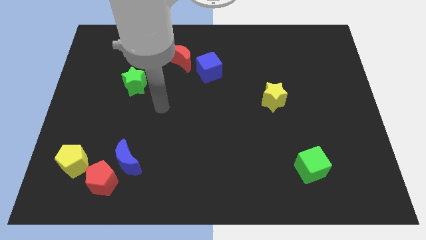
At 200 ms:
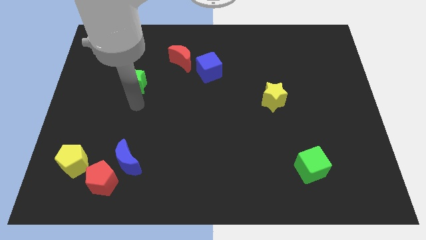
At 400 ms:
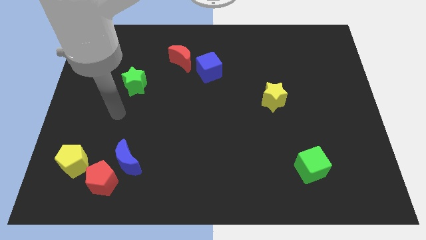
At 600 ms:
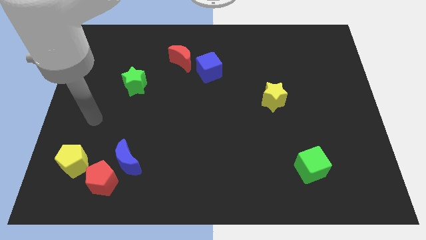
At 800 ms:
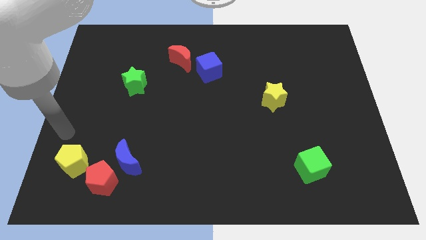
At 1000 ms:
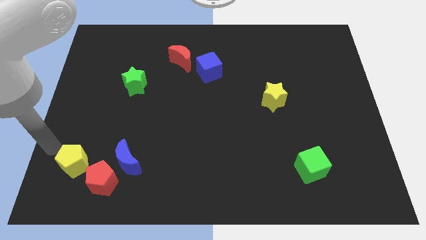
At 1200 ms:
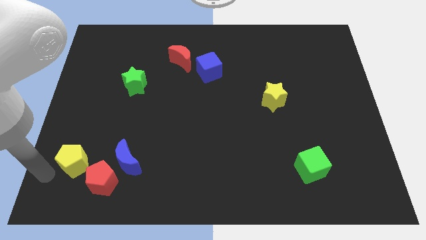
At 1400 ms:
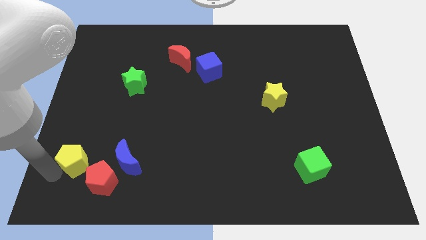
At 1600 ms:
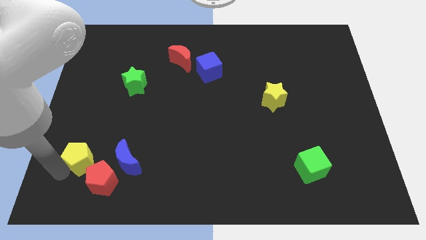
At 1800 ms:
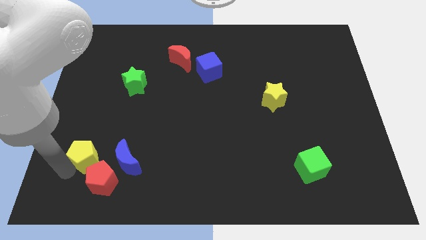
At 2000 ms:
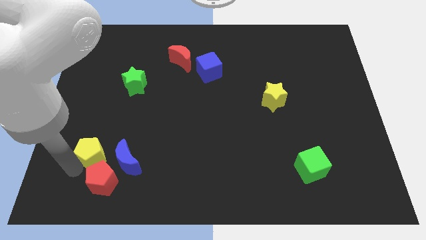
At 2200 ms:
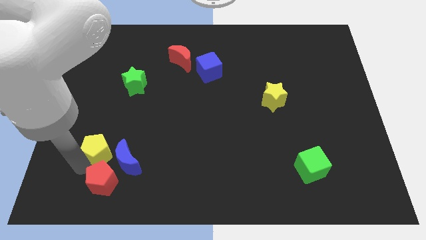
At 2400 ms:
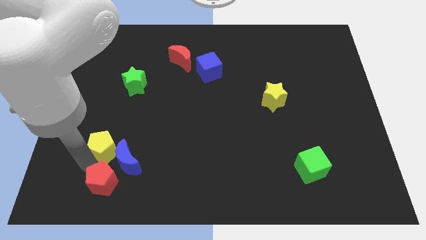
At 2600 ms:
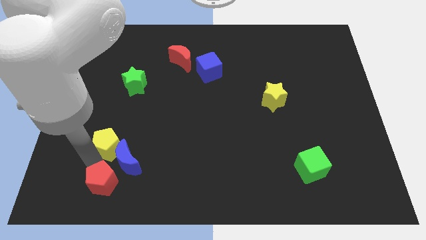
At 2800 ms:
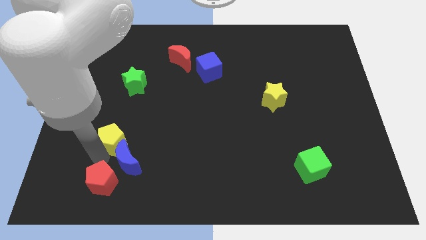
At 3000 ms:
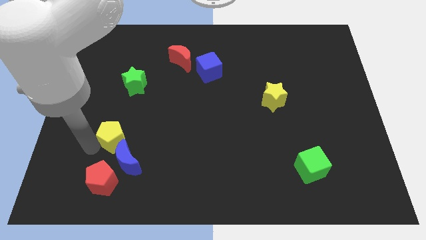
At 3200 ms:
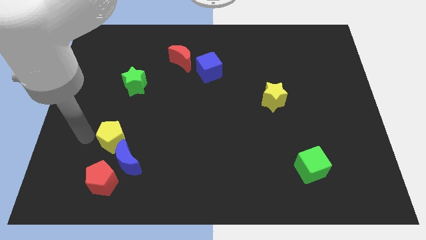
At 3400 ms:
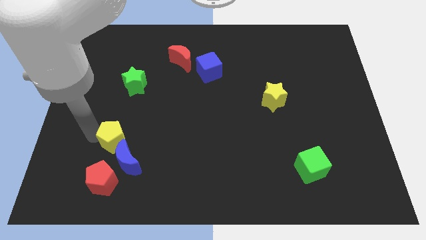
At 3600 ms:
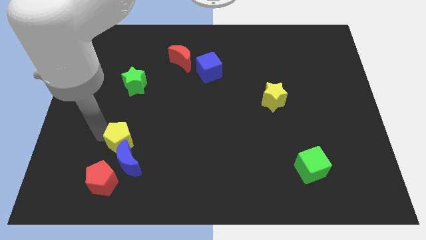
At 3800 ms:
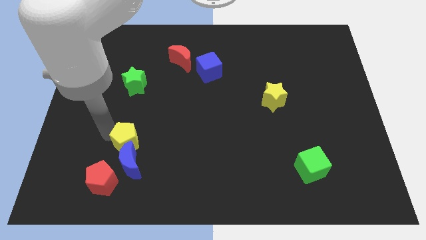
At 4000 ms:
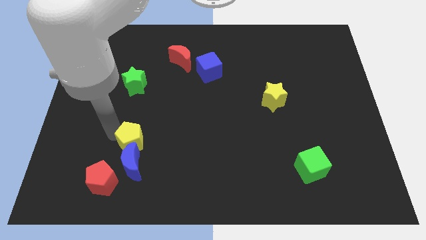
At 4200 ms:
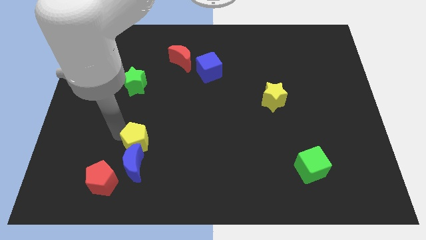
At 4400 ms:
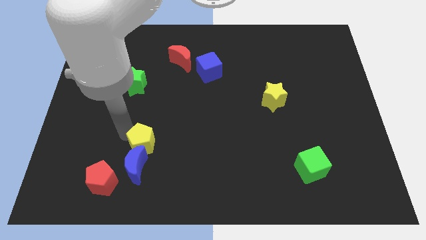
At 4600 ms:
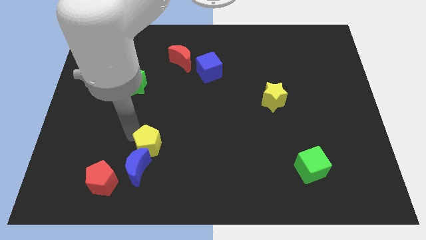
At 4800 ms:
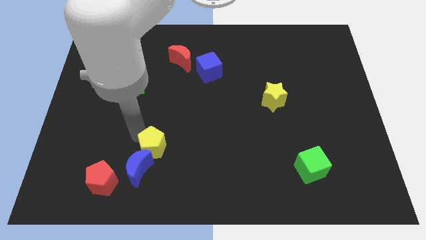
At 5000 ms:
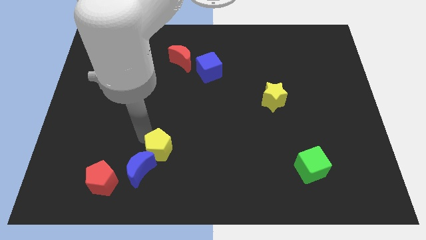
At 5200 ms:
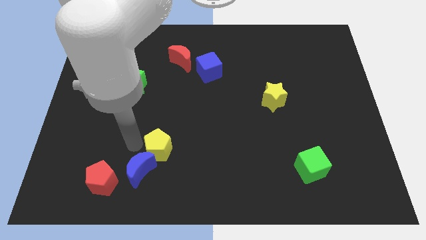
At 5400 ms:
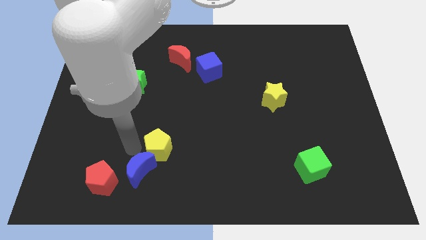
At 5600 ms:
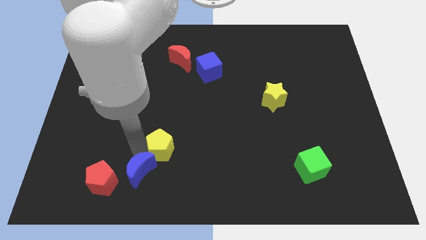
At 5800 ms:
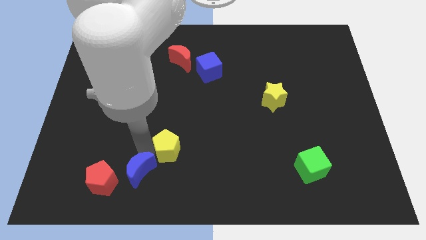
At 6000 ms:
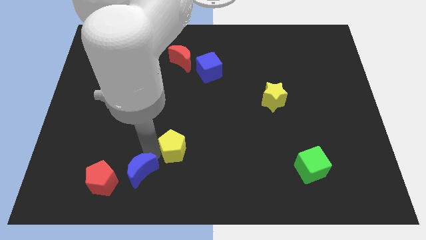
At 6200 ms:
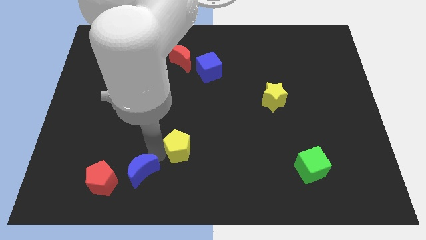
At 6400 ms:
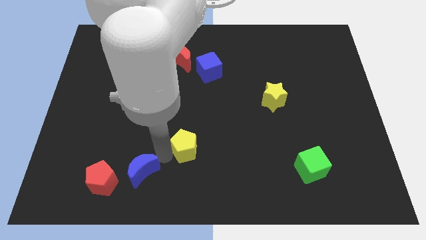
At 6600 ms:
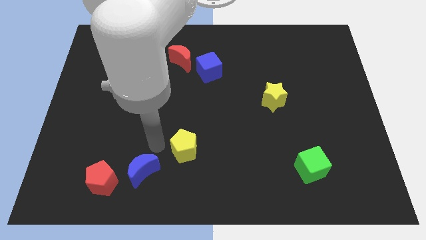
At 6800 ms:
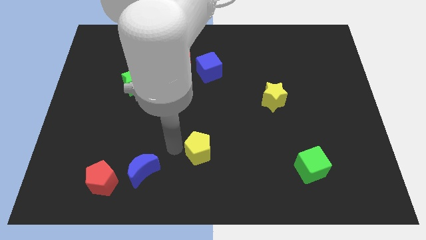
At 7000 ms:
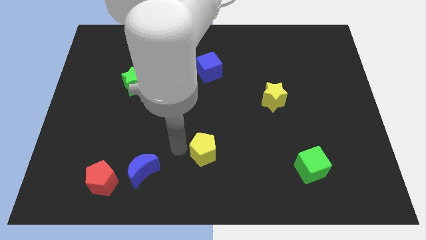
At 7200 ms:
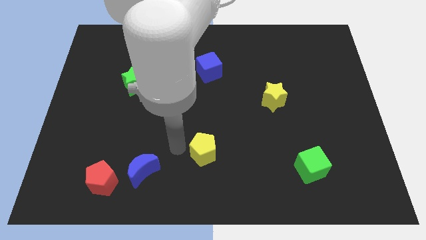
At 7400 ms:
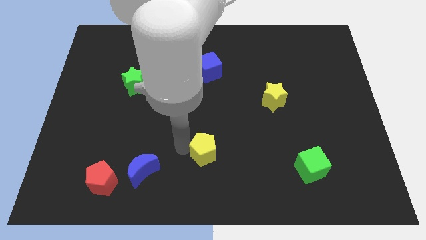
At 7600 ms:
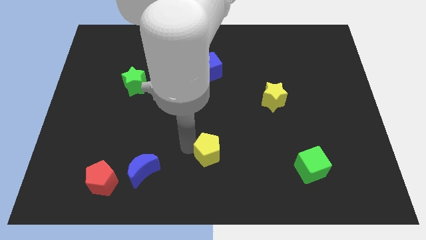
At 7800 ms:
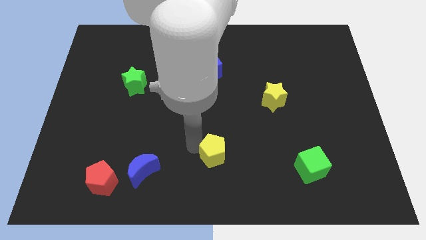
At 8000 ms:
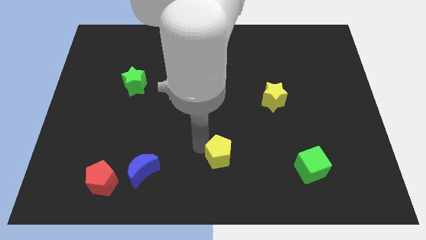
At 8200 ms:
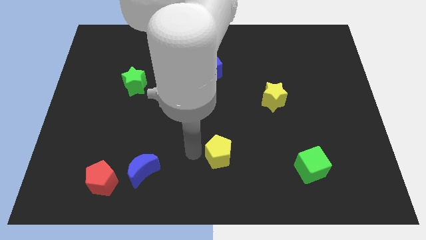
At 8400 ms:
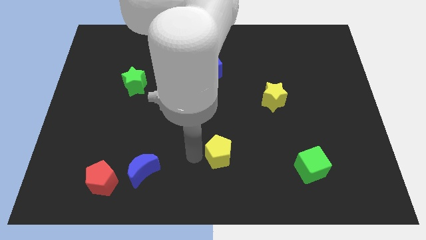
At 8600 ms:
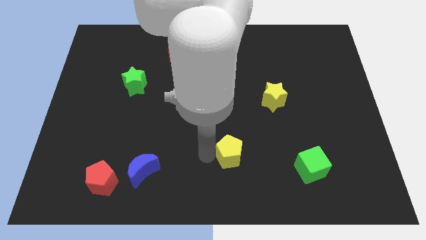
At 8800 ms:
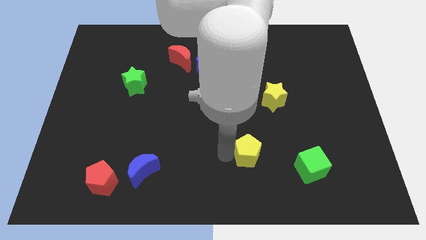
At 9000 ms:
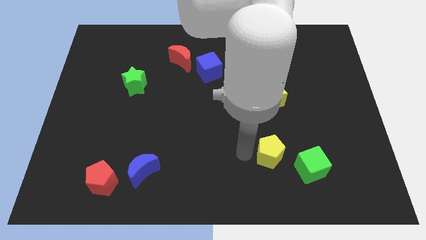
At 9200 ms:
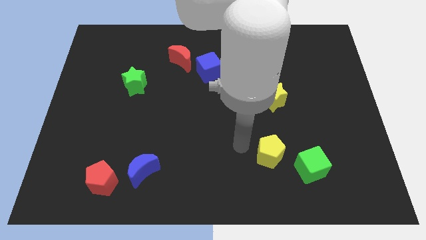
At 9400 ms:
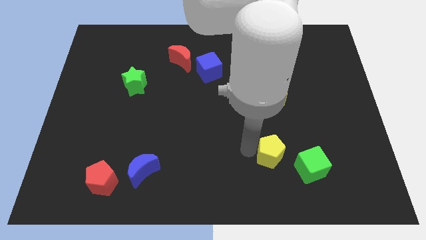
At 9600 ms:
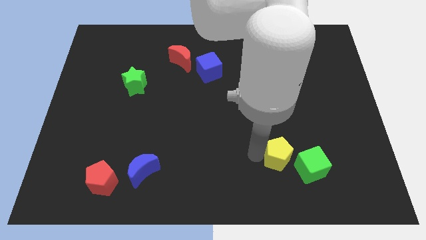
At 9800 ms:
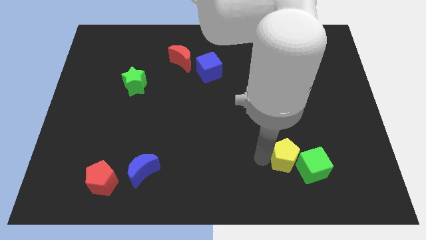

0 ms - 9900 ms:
move the yellow pentagon to the green cube

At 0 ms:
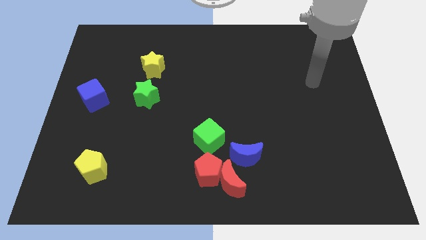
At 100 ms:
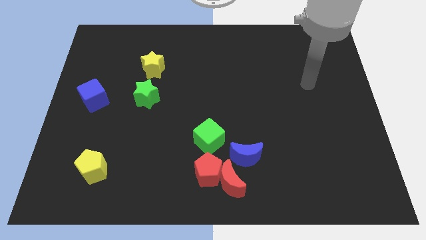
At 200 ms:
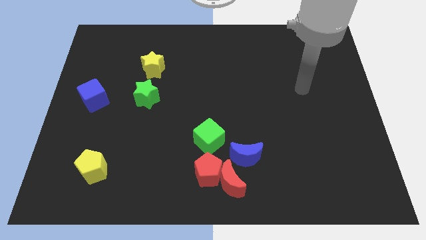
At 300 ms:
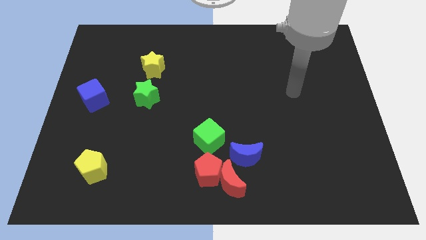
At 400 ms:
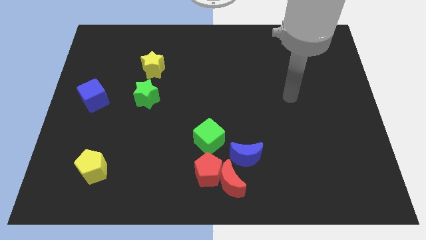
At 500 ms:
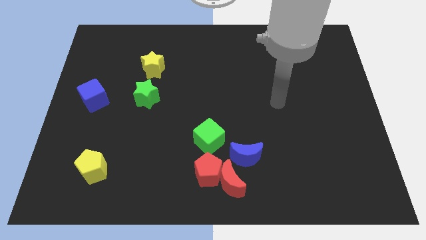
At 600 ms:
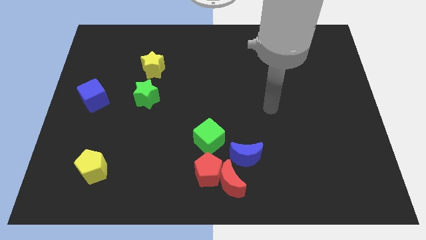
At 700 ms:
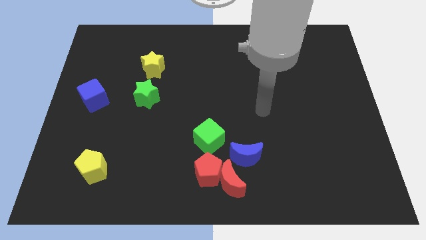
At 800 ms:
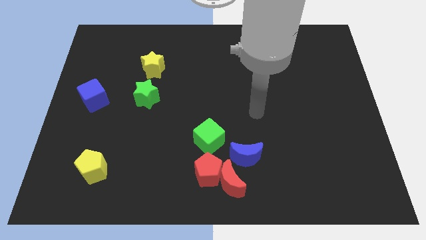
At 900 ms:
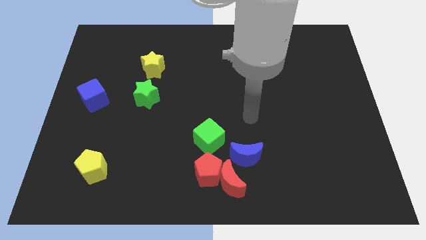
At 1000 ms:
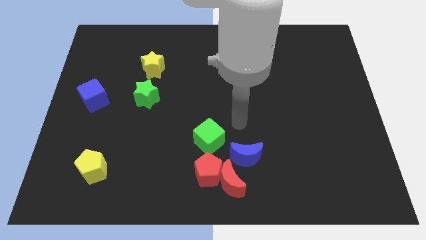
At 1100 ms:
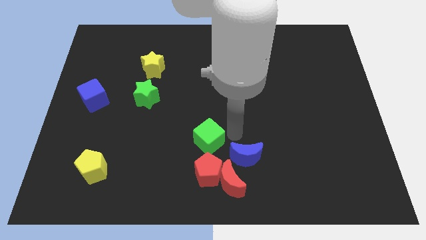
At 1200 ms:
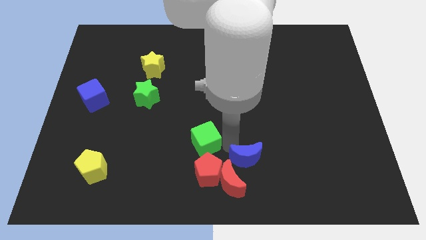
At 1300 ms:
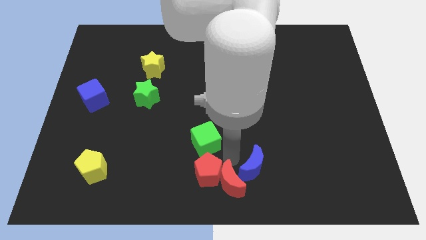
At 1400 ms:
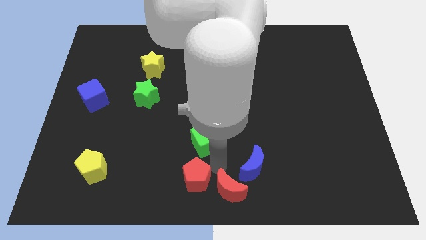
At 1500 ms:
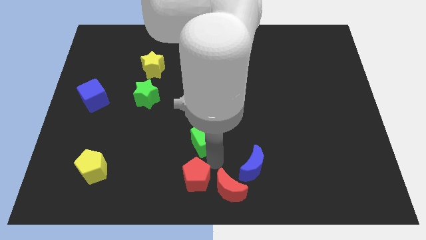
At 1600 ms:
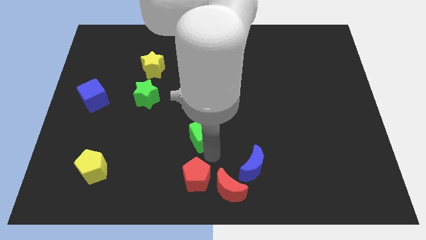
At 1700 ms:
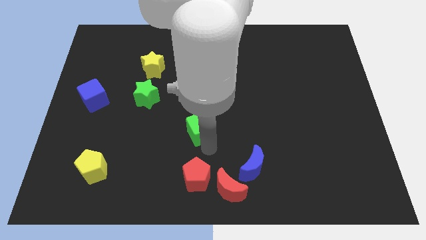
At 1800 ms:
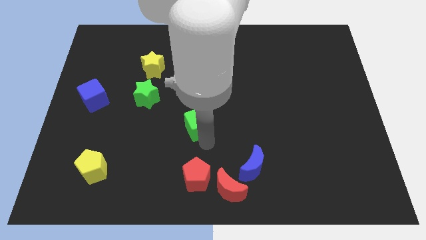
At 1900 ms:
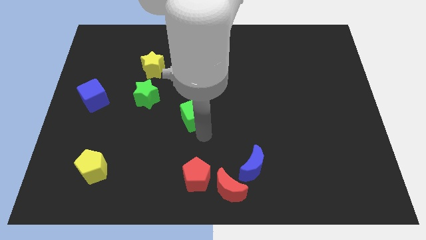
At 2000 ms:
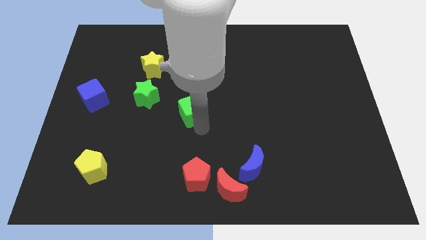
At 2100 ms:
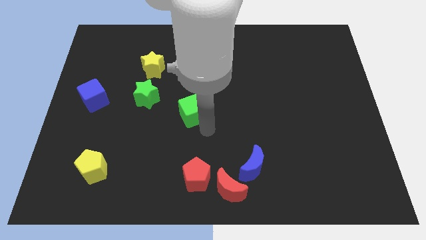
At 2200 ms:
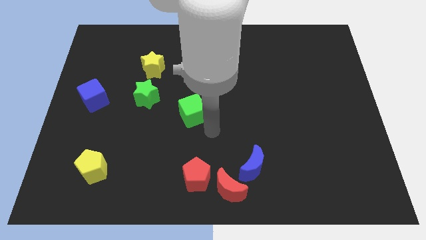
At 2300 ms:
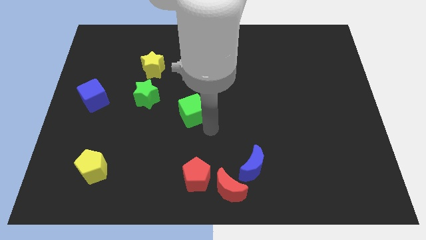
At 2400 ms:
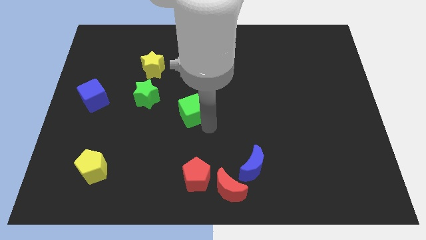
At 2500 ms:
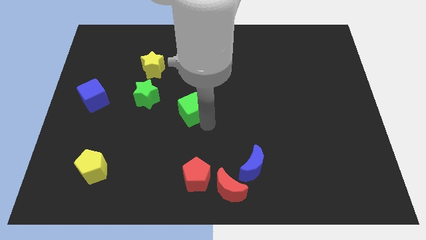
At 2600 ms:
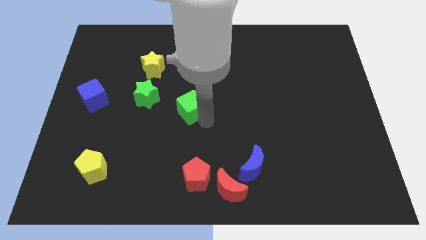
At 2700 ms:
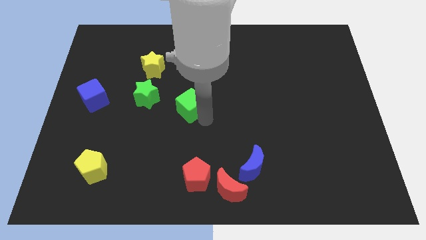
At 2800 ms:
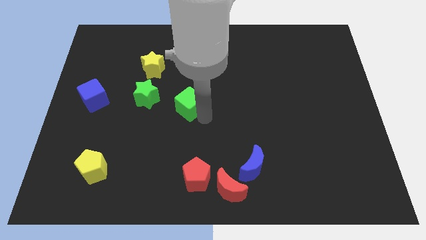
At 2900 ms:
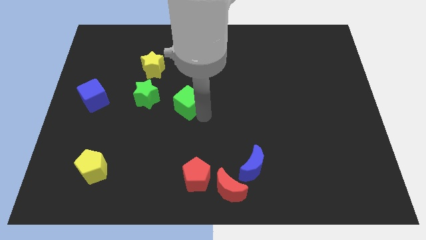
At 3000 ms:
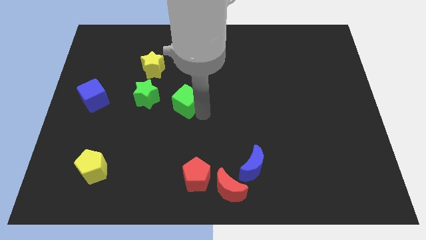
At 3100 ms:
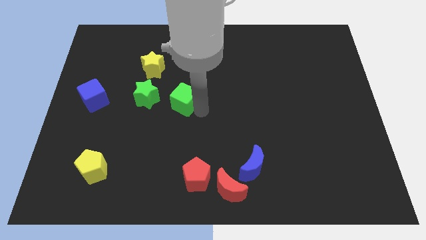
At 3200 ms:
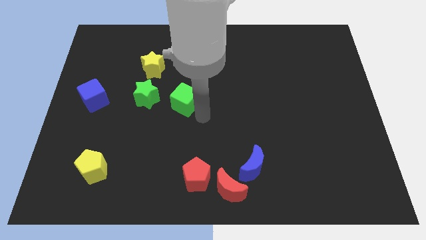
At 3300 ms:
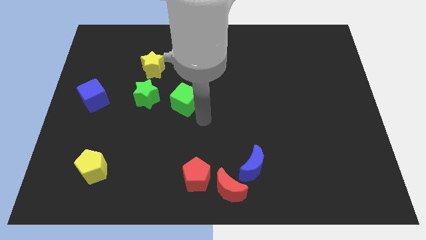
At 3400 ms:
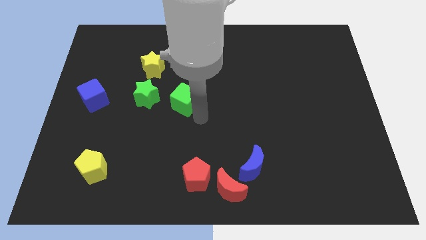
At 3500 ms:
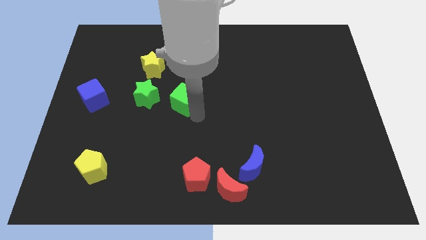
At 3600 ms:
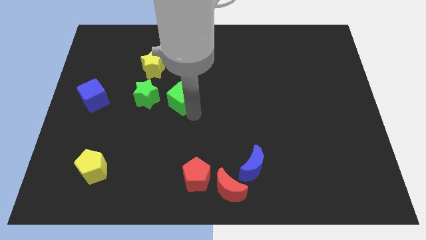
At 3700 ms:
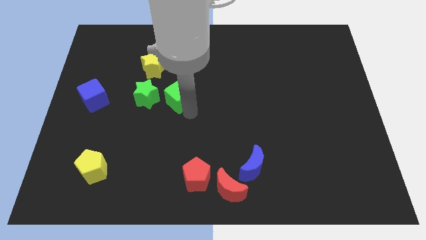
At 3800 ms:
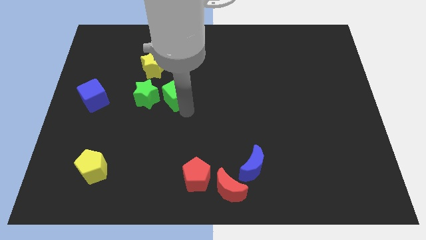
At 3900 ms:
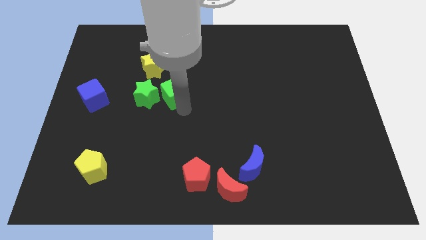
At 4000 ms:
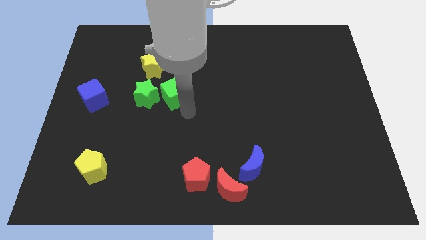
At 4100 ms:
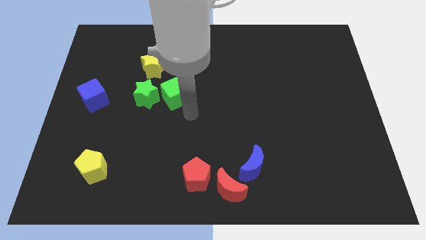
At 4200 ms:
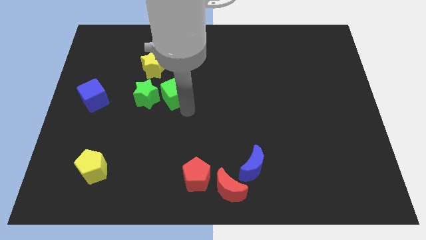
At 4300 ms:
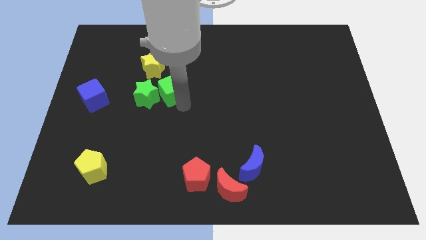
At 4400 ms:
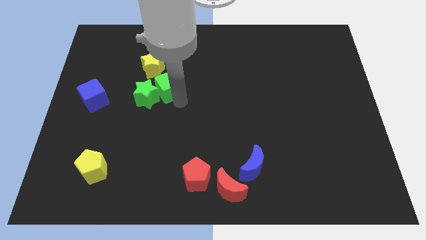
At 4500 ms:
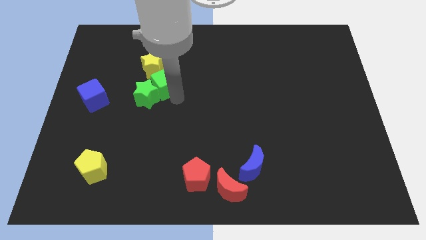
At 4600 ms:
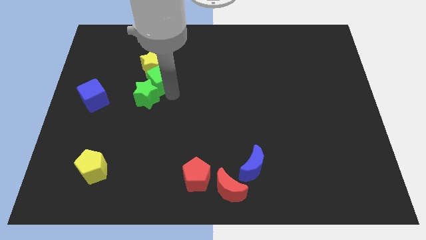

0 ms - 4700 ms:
put the green cube next to the yellow star
